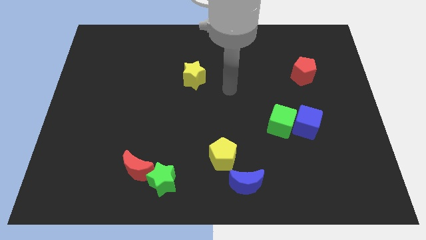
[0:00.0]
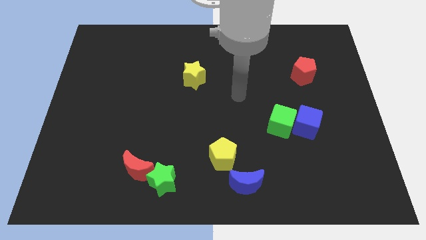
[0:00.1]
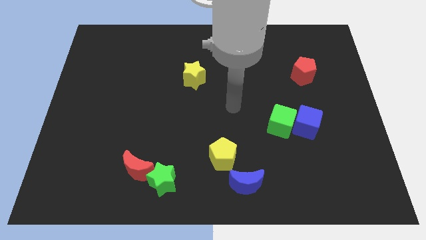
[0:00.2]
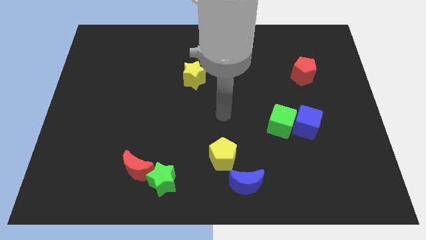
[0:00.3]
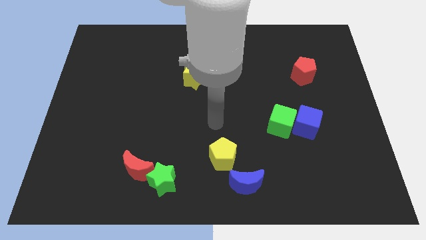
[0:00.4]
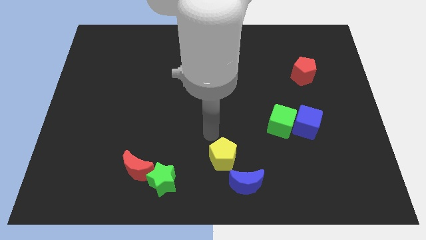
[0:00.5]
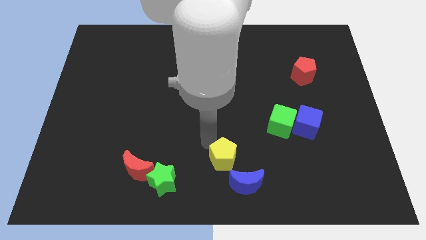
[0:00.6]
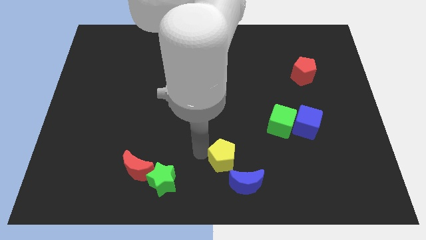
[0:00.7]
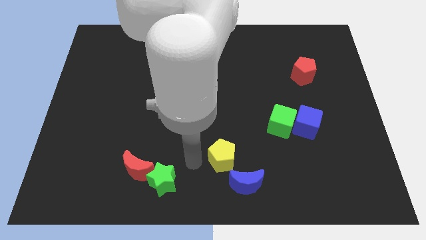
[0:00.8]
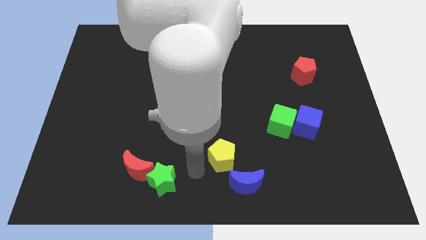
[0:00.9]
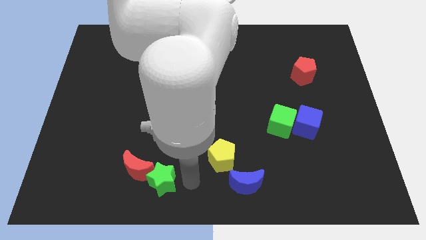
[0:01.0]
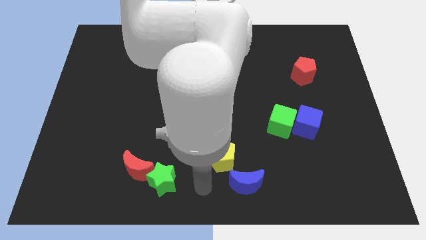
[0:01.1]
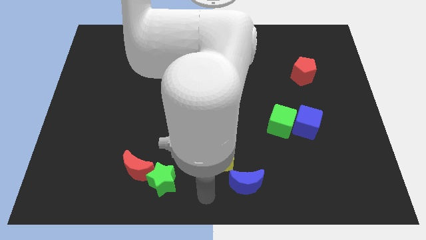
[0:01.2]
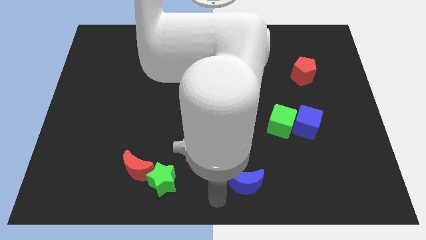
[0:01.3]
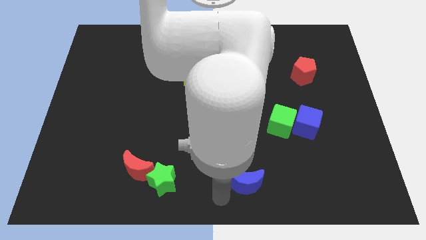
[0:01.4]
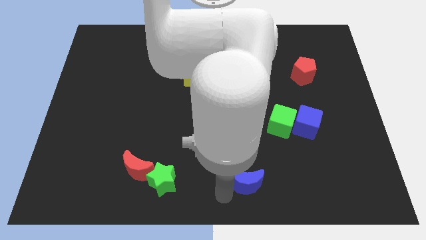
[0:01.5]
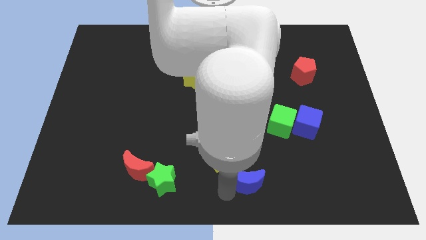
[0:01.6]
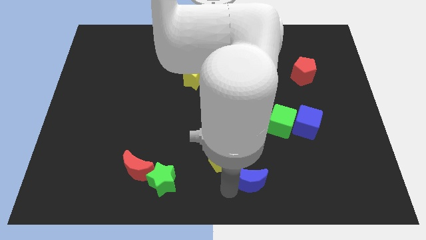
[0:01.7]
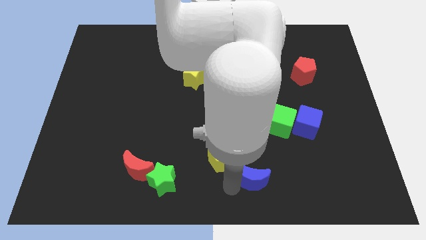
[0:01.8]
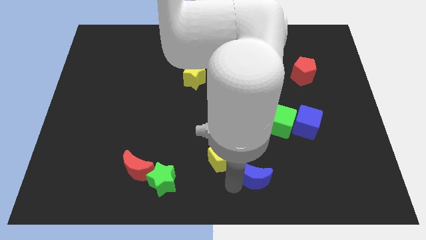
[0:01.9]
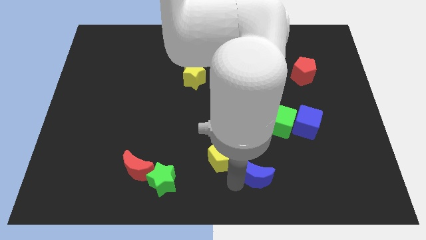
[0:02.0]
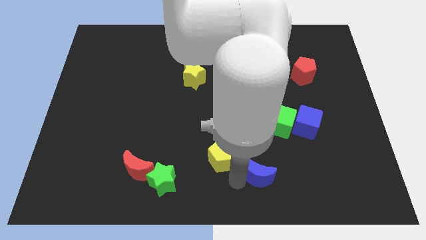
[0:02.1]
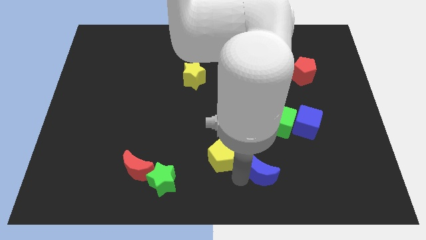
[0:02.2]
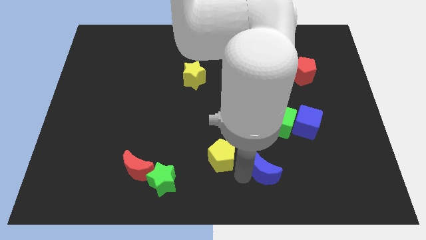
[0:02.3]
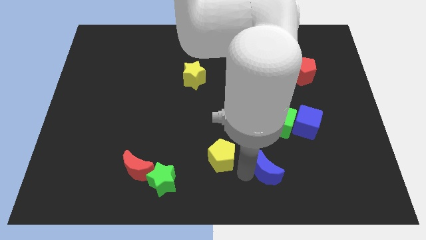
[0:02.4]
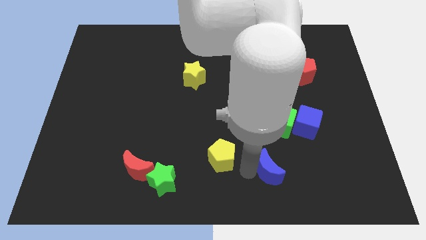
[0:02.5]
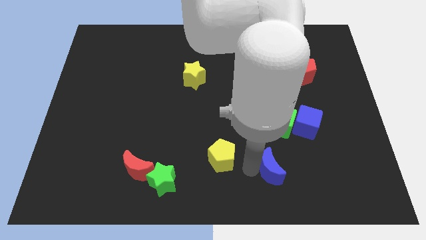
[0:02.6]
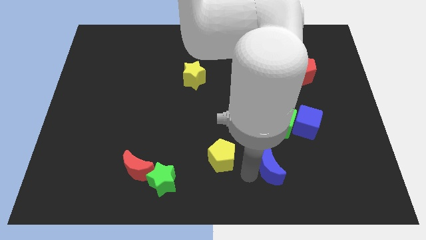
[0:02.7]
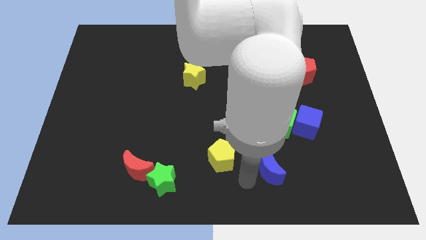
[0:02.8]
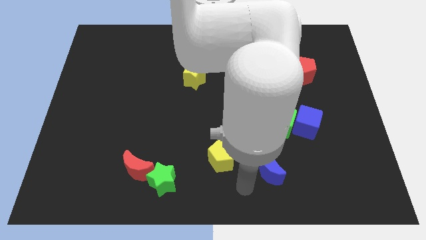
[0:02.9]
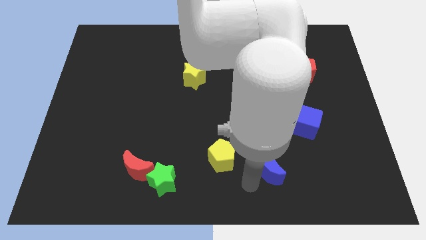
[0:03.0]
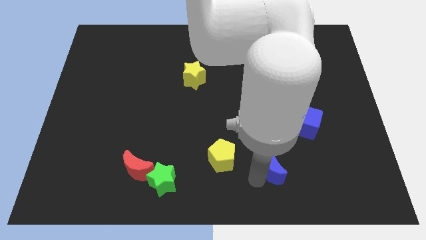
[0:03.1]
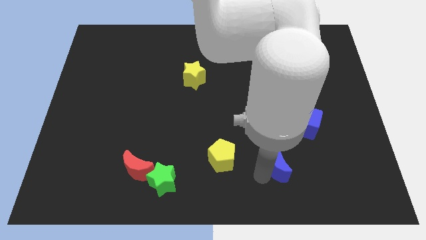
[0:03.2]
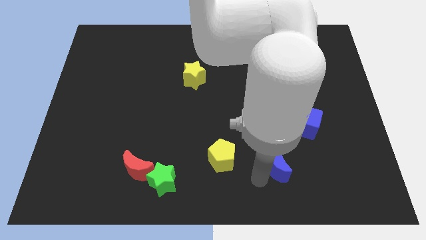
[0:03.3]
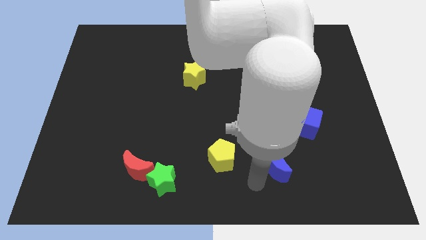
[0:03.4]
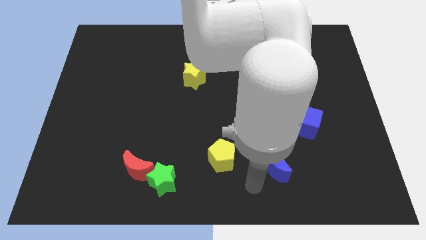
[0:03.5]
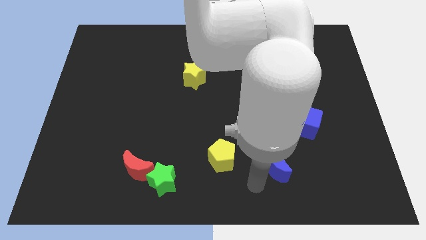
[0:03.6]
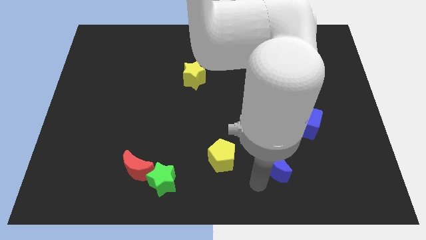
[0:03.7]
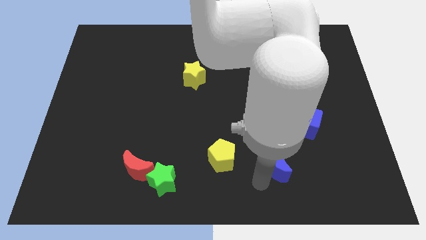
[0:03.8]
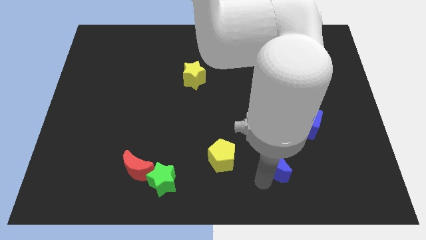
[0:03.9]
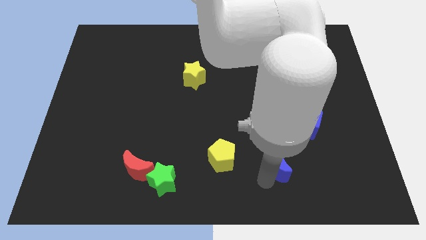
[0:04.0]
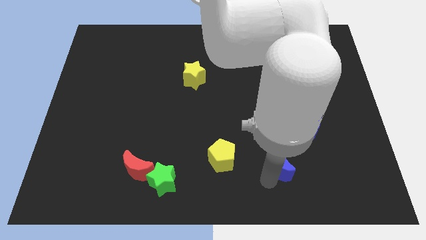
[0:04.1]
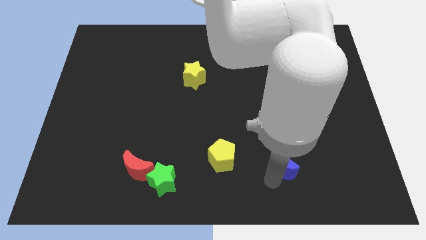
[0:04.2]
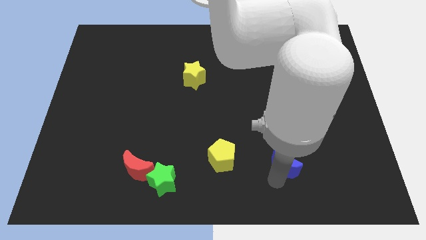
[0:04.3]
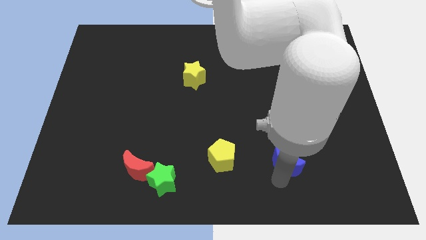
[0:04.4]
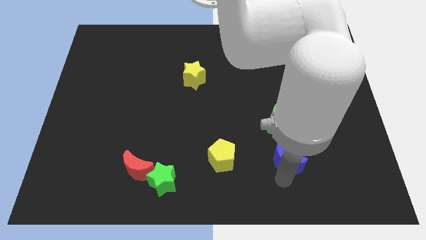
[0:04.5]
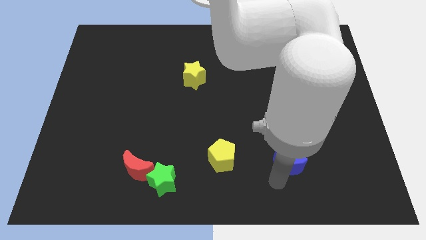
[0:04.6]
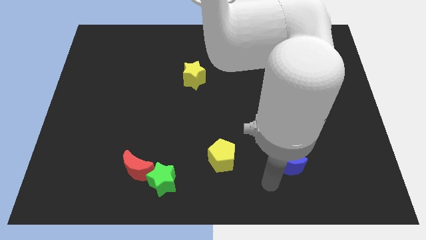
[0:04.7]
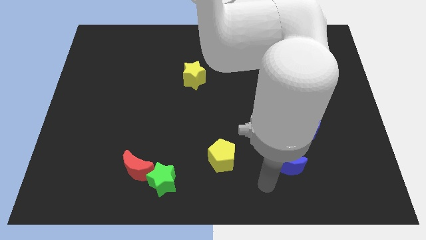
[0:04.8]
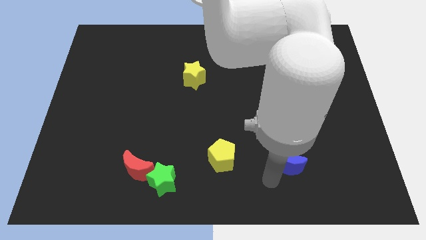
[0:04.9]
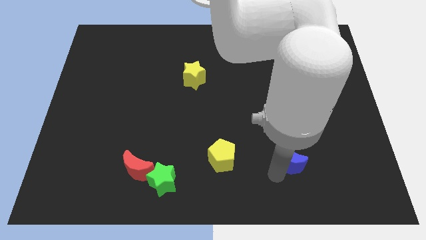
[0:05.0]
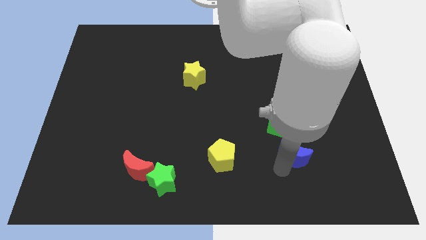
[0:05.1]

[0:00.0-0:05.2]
slide the blue moon to the bottom right side of the green cube

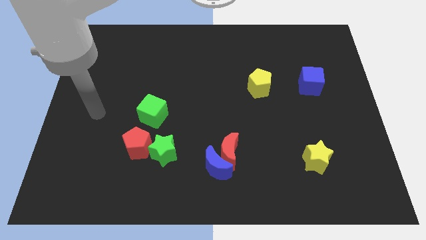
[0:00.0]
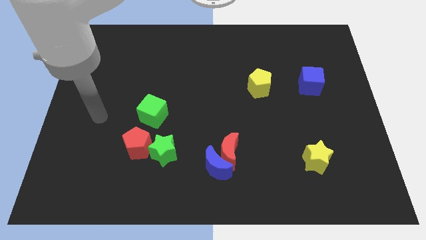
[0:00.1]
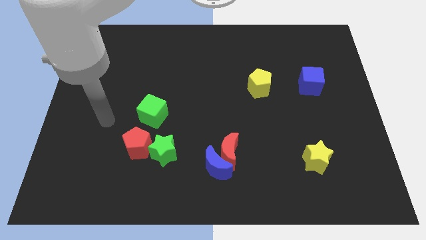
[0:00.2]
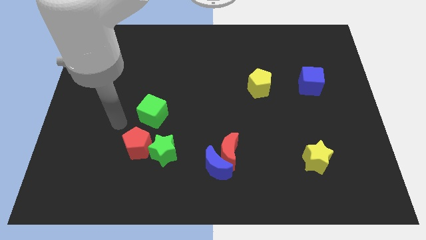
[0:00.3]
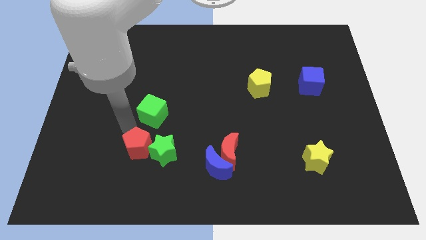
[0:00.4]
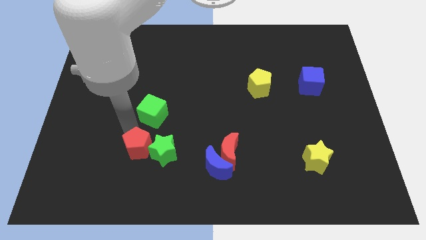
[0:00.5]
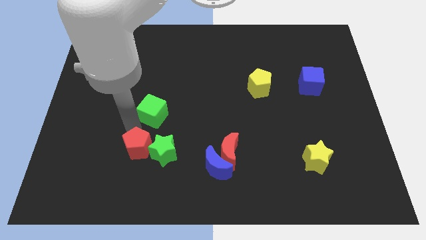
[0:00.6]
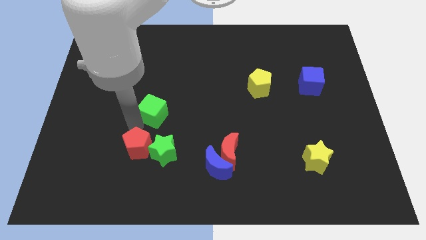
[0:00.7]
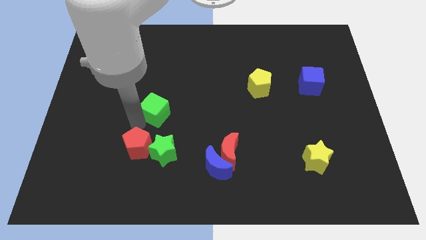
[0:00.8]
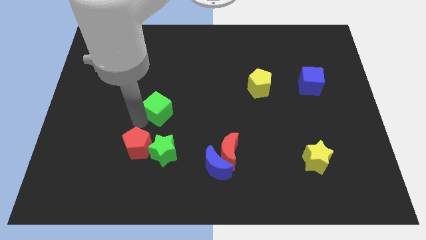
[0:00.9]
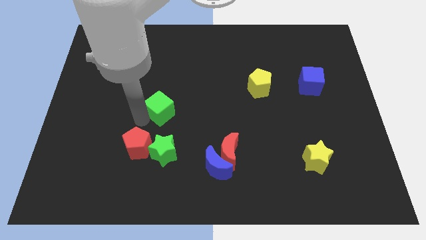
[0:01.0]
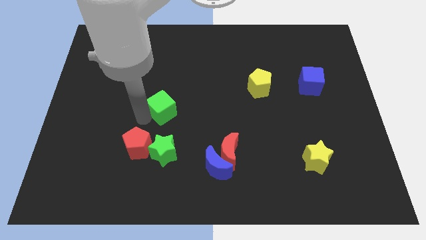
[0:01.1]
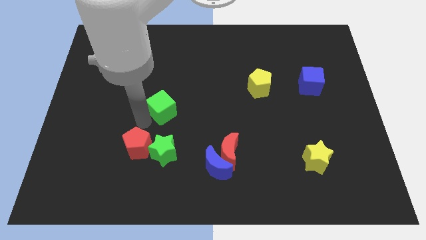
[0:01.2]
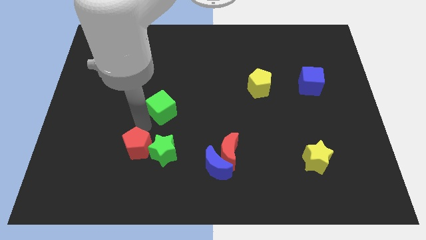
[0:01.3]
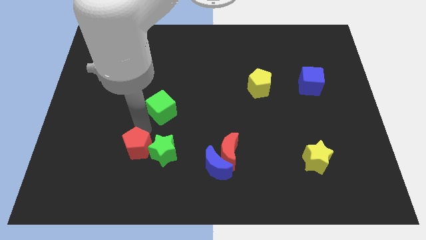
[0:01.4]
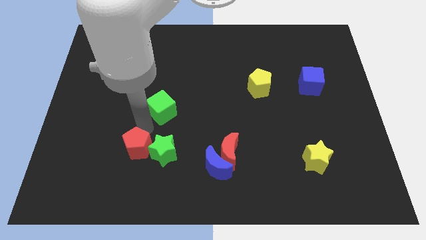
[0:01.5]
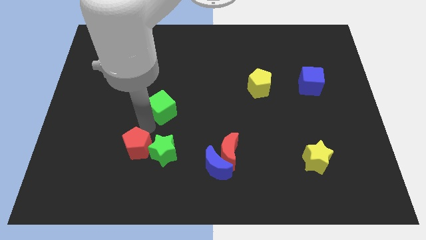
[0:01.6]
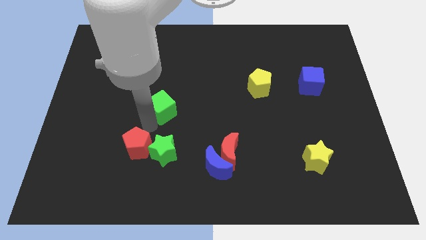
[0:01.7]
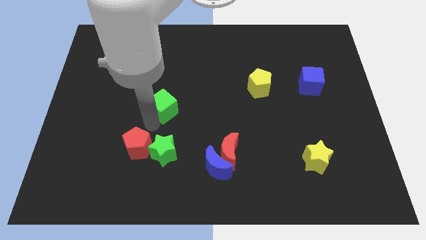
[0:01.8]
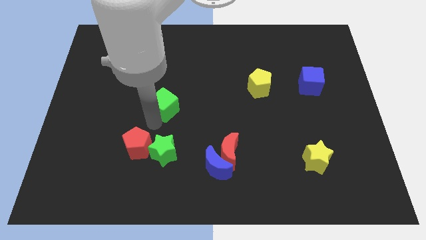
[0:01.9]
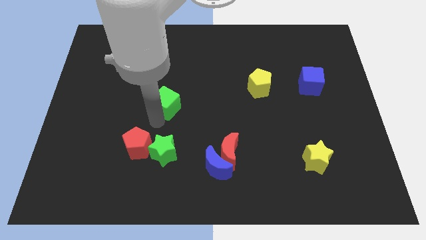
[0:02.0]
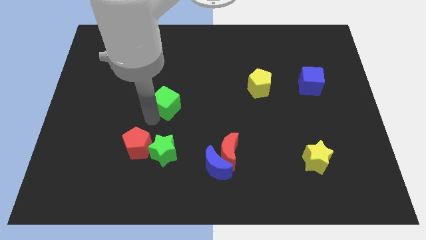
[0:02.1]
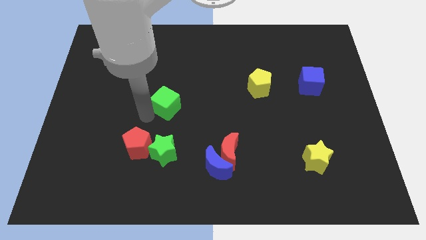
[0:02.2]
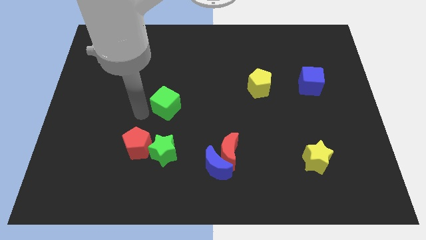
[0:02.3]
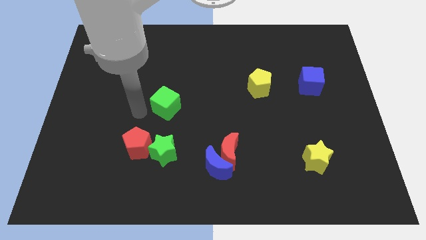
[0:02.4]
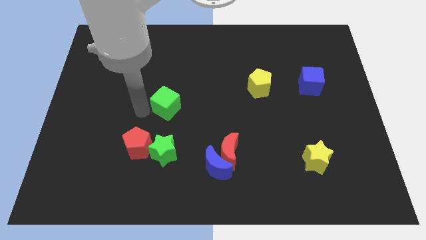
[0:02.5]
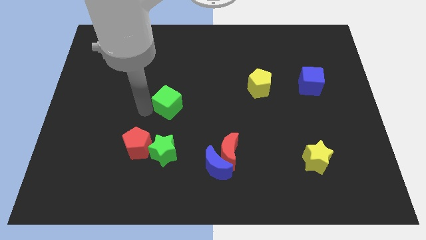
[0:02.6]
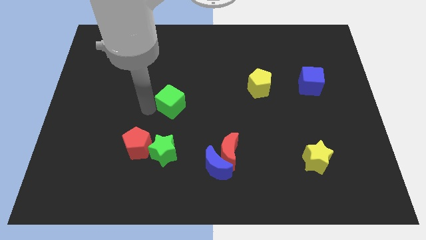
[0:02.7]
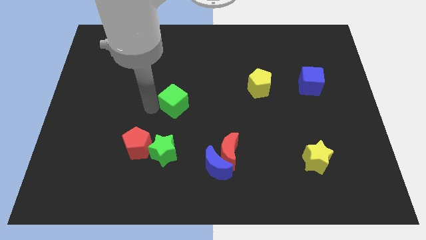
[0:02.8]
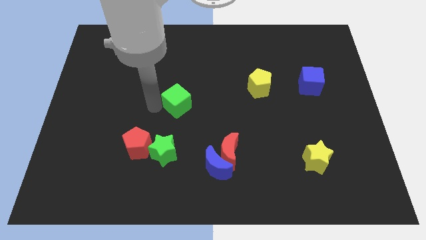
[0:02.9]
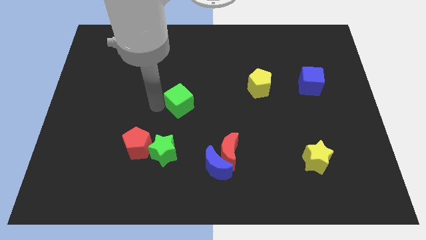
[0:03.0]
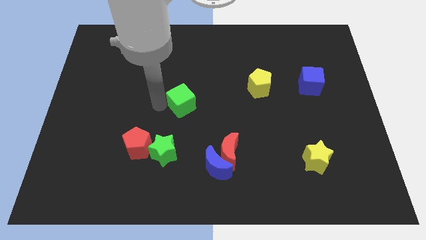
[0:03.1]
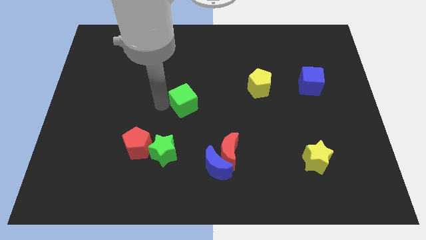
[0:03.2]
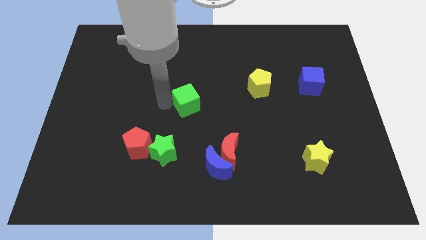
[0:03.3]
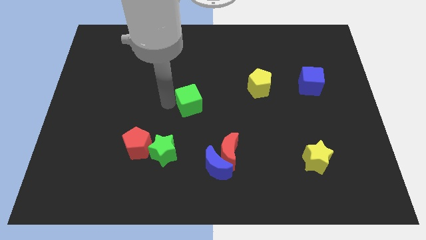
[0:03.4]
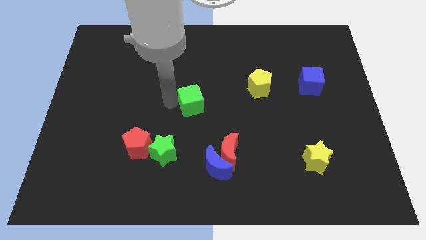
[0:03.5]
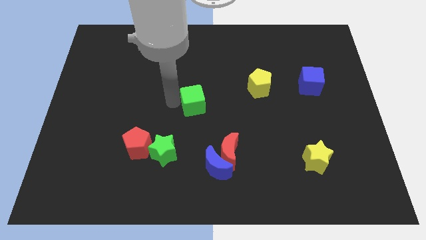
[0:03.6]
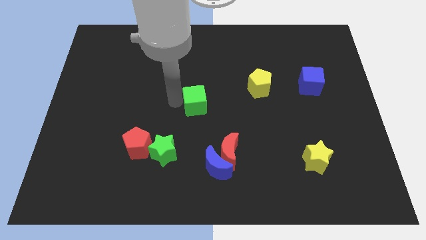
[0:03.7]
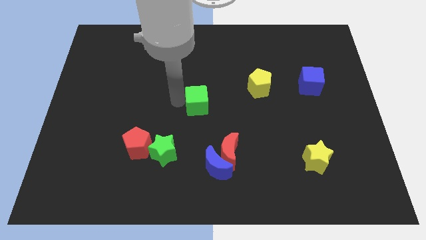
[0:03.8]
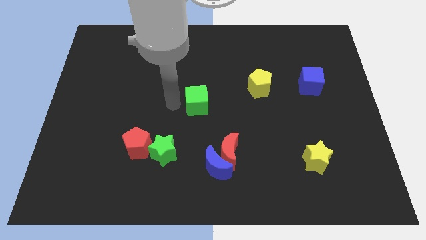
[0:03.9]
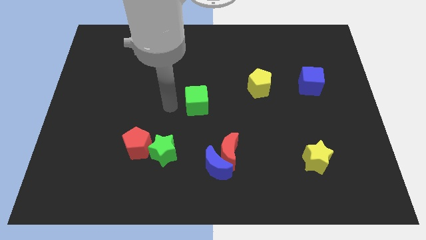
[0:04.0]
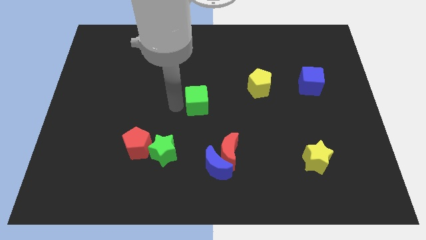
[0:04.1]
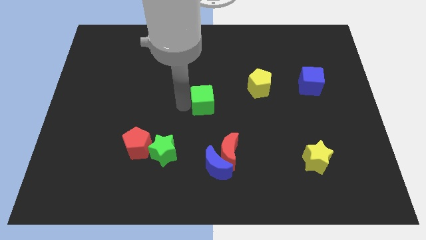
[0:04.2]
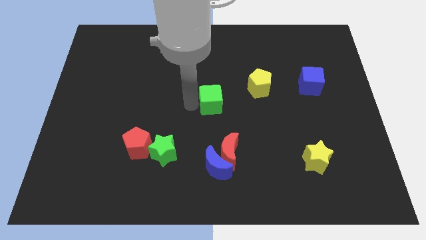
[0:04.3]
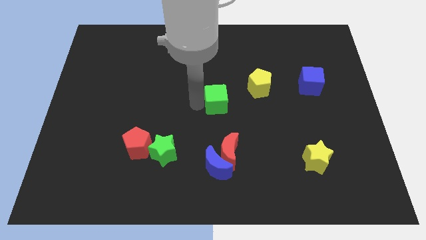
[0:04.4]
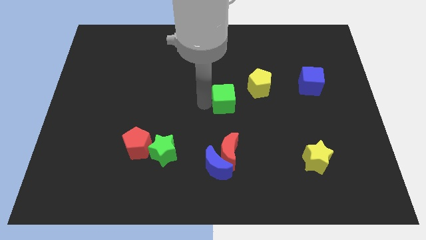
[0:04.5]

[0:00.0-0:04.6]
put the green cube diagonally down and to the left of the yellow pentagon
